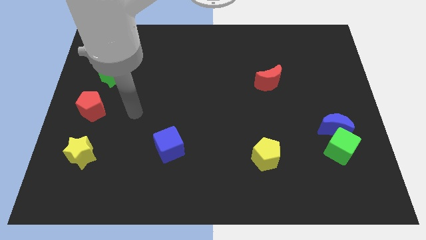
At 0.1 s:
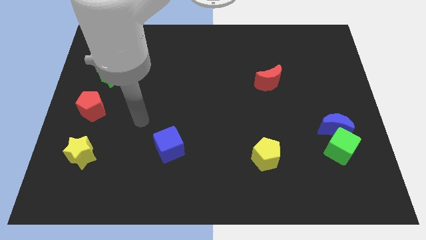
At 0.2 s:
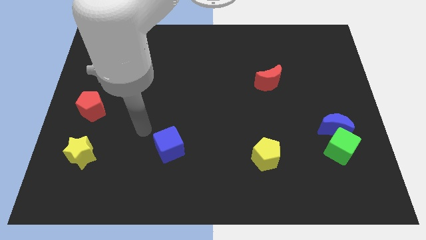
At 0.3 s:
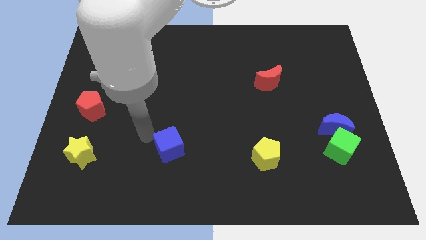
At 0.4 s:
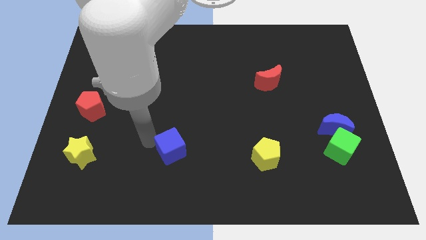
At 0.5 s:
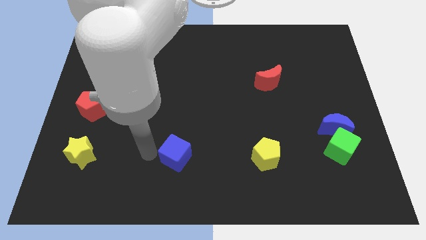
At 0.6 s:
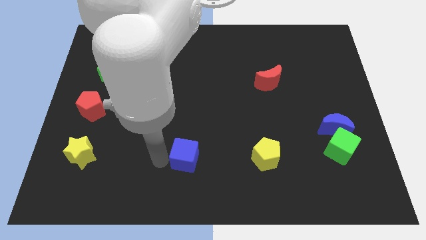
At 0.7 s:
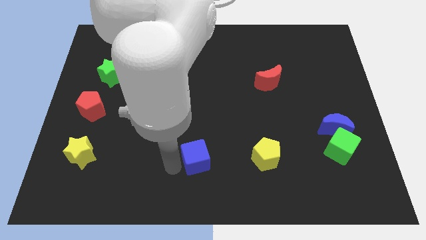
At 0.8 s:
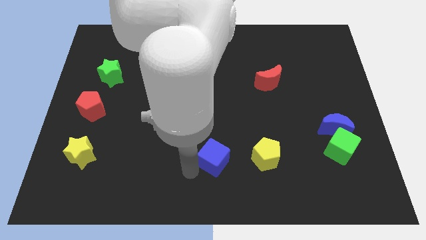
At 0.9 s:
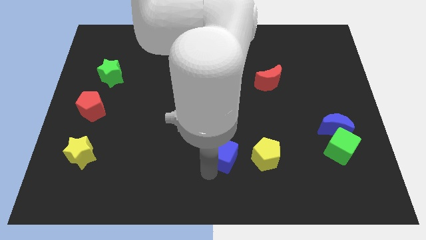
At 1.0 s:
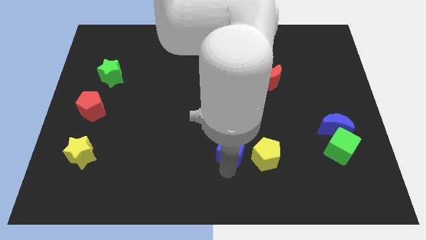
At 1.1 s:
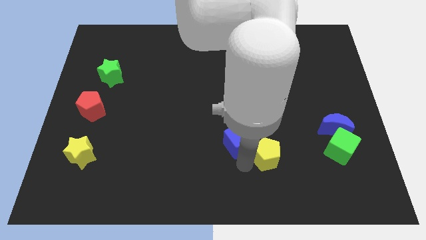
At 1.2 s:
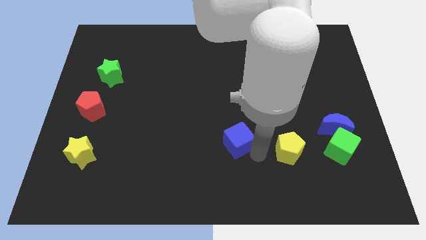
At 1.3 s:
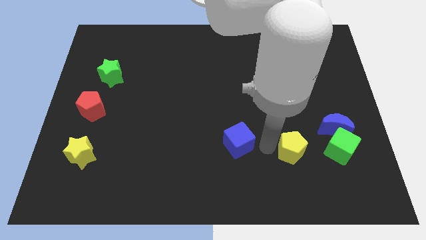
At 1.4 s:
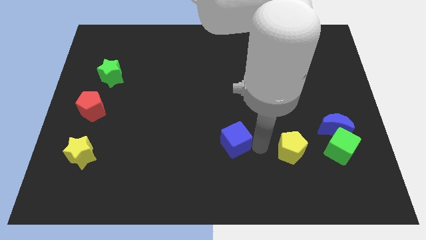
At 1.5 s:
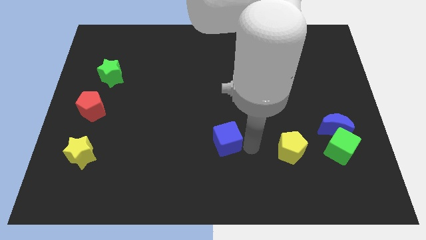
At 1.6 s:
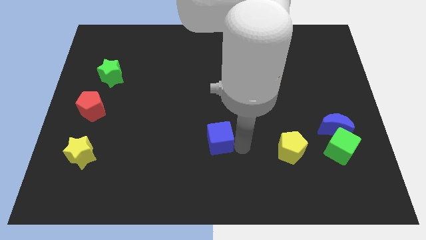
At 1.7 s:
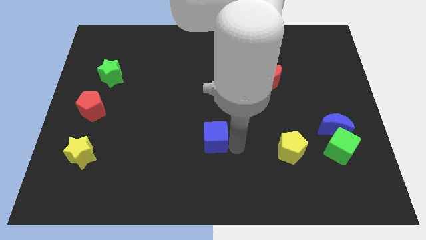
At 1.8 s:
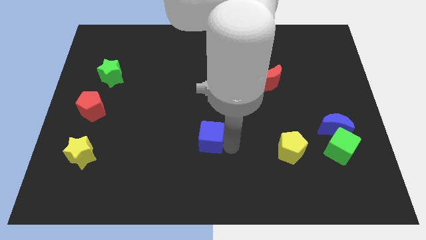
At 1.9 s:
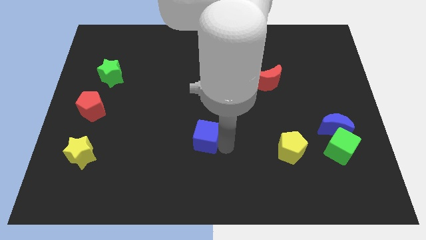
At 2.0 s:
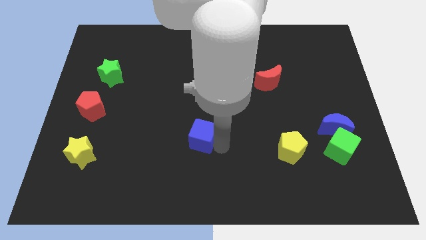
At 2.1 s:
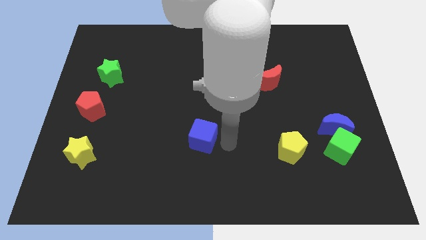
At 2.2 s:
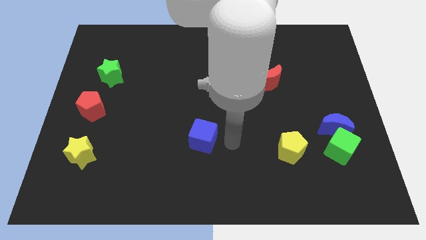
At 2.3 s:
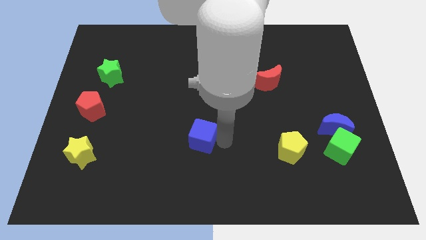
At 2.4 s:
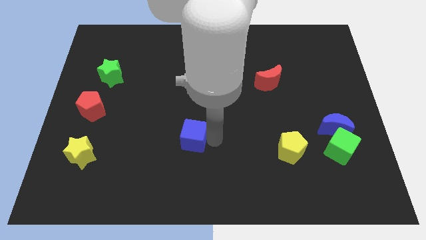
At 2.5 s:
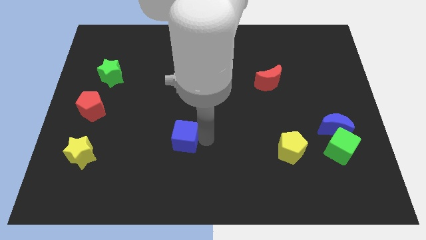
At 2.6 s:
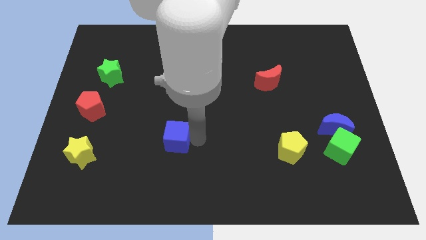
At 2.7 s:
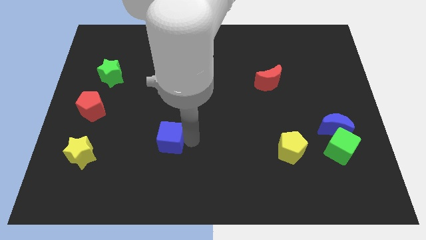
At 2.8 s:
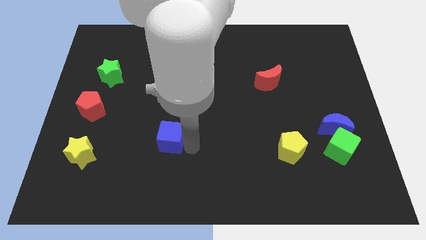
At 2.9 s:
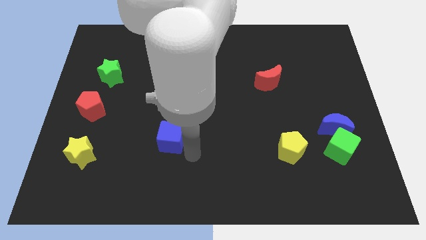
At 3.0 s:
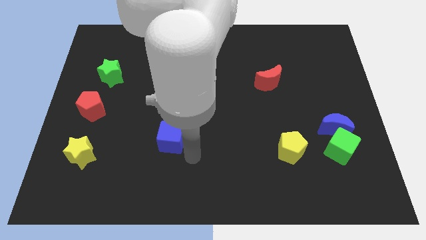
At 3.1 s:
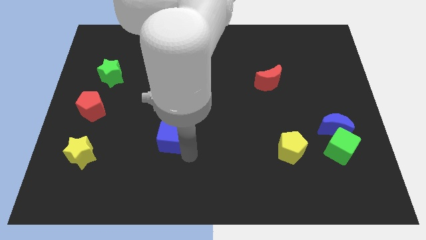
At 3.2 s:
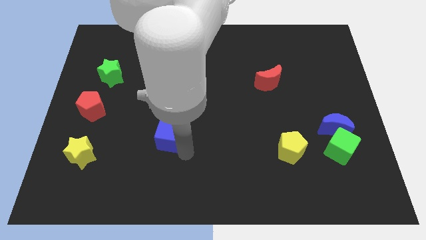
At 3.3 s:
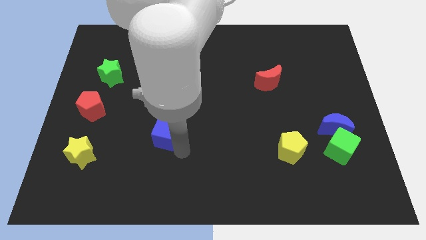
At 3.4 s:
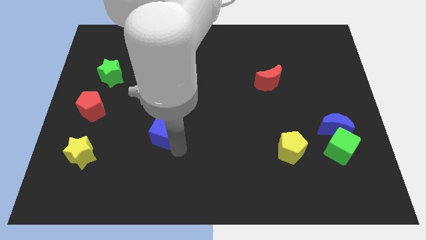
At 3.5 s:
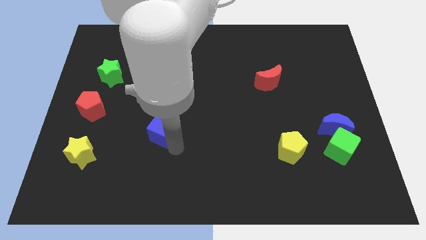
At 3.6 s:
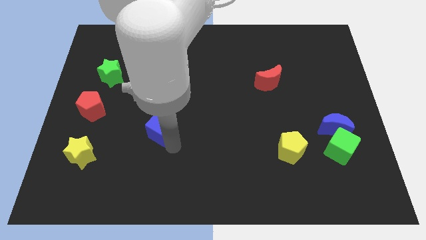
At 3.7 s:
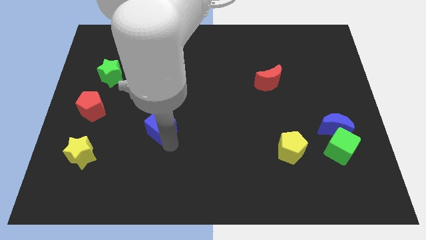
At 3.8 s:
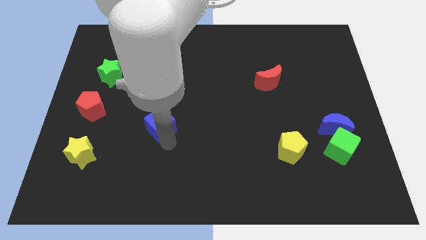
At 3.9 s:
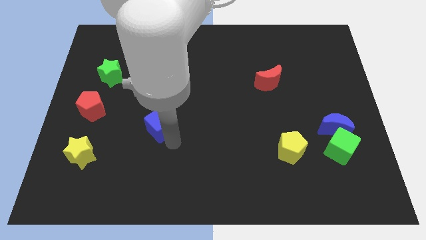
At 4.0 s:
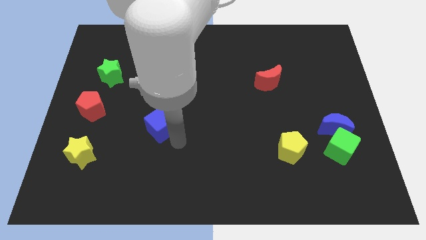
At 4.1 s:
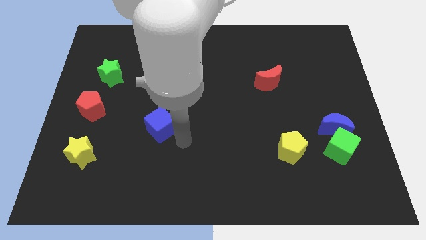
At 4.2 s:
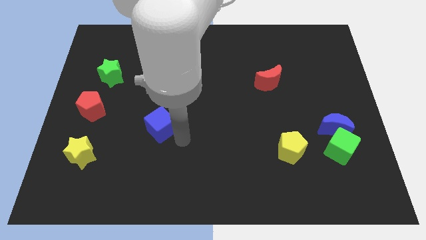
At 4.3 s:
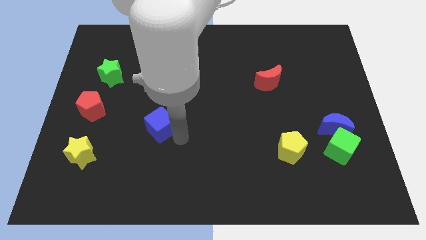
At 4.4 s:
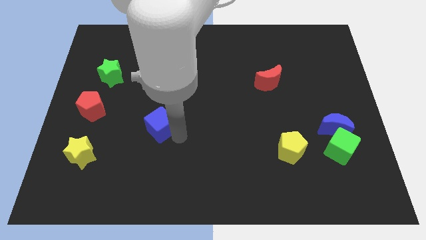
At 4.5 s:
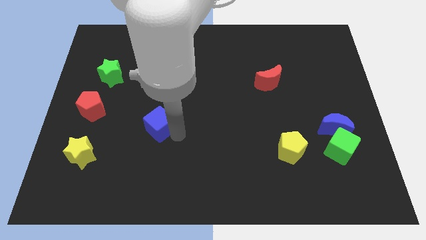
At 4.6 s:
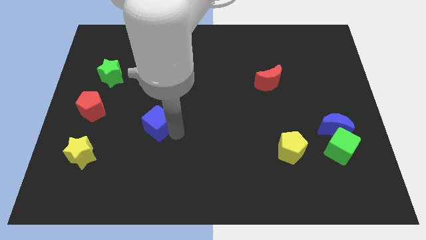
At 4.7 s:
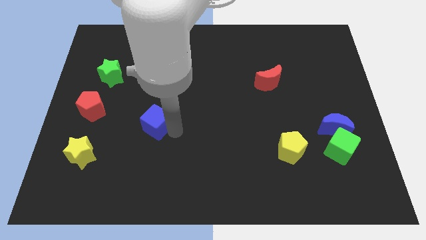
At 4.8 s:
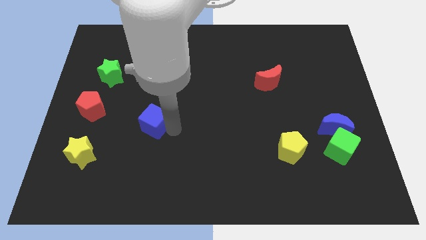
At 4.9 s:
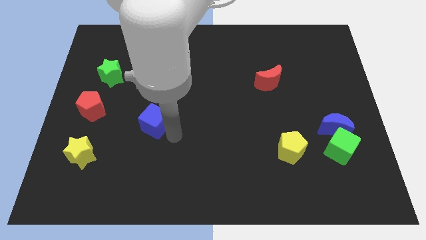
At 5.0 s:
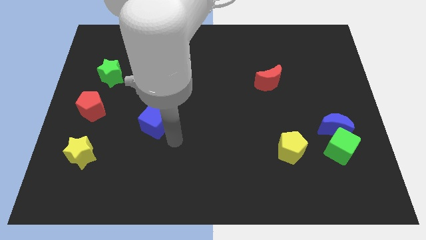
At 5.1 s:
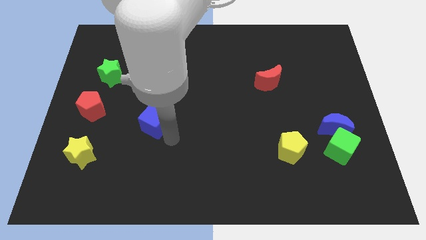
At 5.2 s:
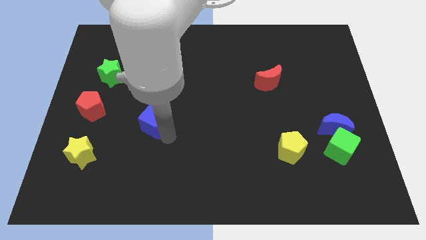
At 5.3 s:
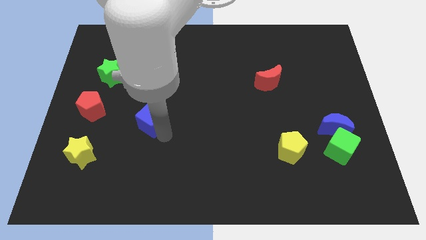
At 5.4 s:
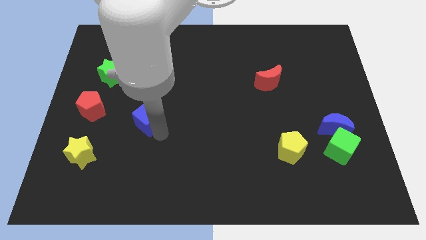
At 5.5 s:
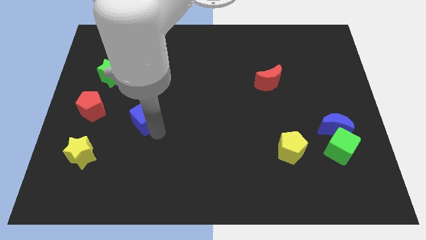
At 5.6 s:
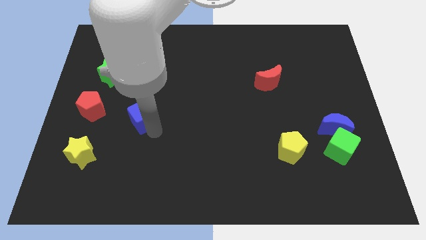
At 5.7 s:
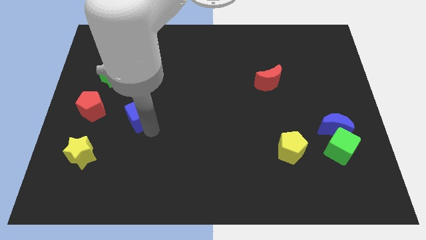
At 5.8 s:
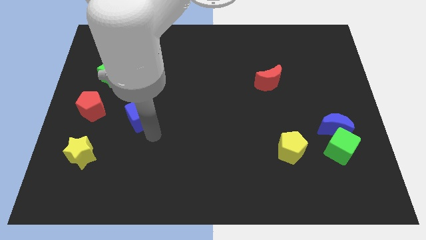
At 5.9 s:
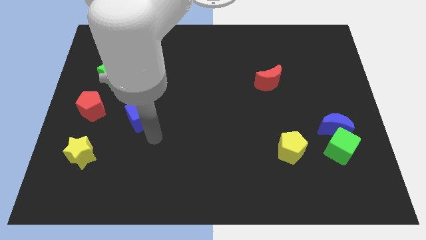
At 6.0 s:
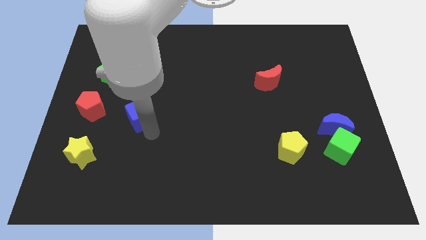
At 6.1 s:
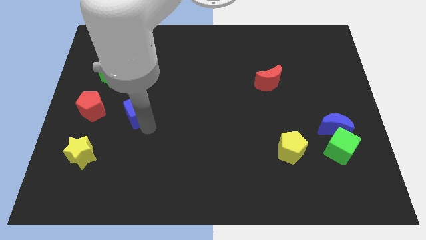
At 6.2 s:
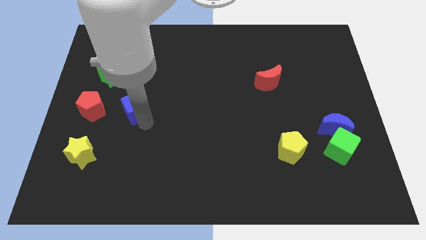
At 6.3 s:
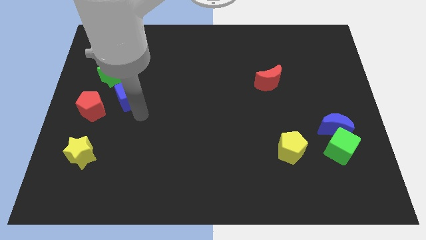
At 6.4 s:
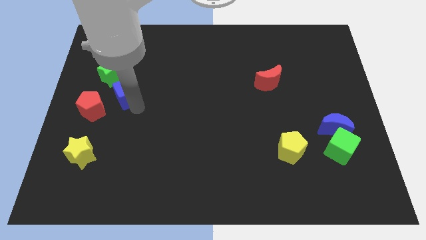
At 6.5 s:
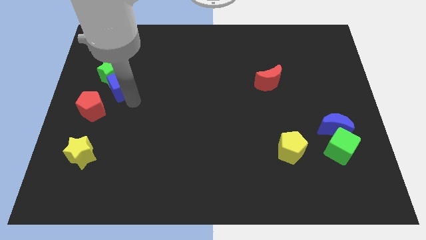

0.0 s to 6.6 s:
push the blue cube to the green star
